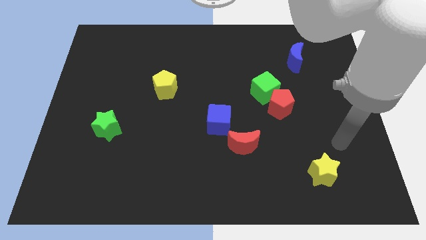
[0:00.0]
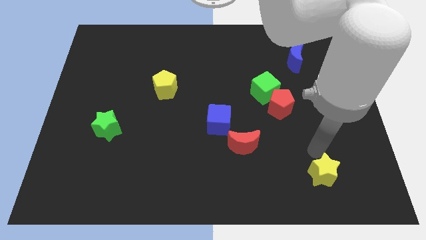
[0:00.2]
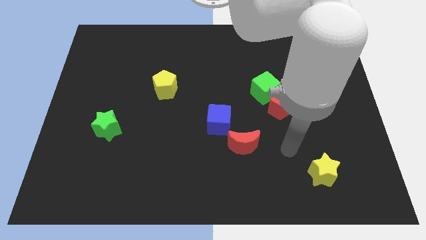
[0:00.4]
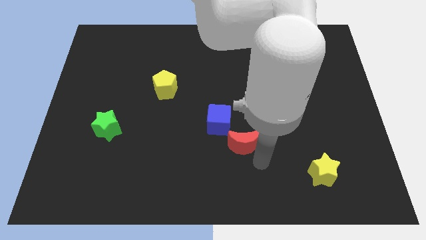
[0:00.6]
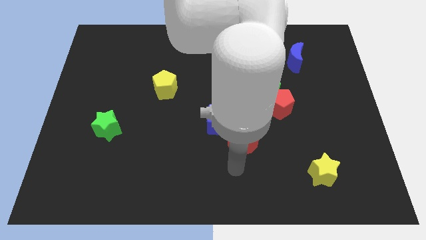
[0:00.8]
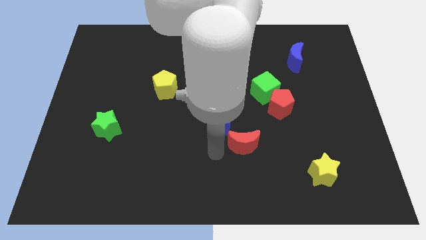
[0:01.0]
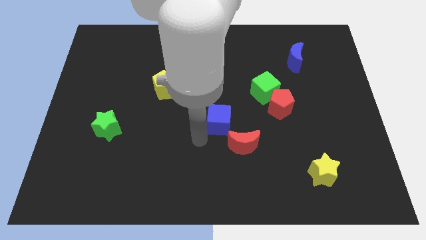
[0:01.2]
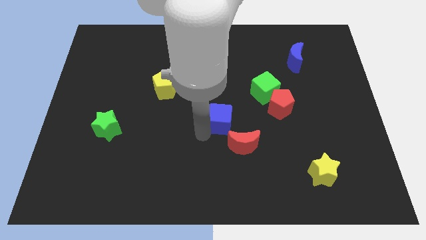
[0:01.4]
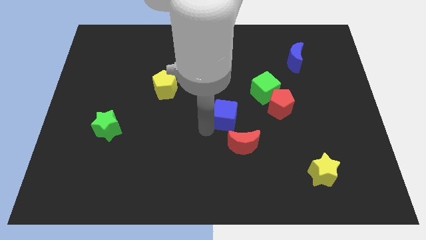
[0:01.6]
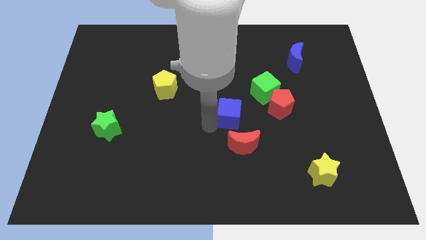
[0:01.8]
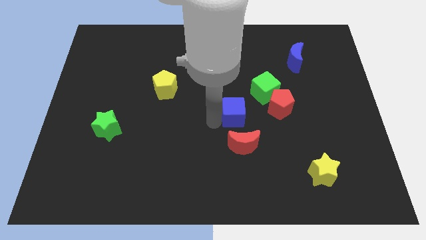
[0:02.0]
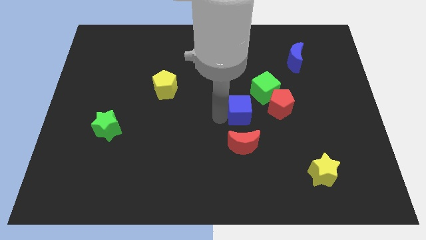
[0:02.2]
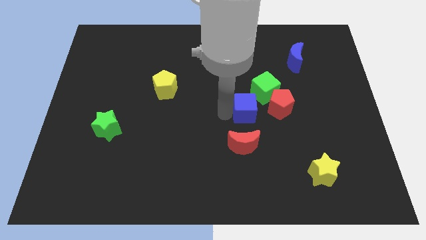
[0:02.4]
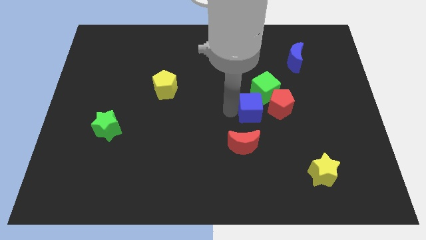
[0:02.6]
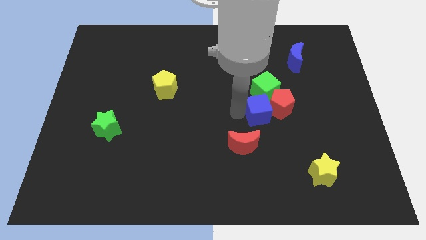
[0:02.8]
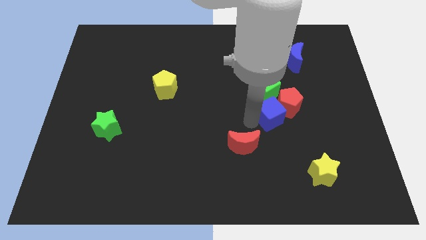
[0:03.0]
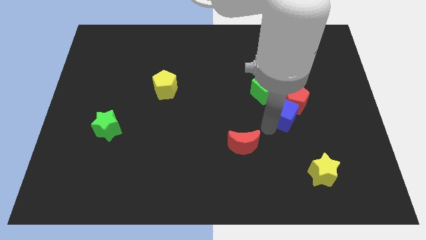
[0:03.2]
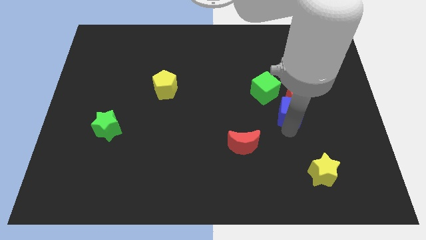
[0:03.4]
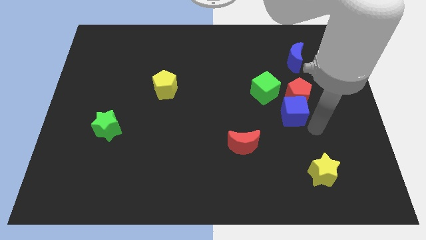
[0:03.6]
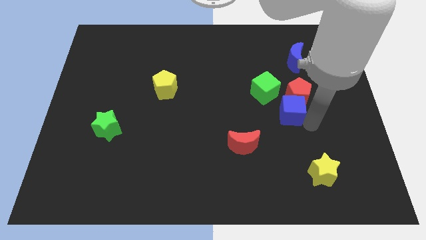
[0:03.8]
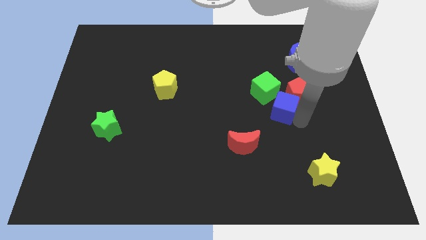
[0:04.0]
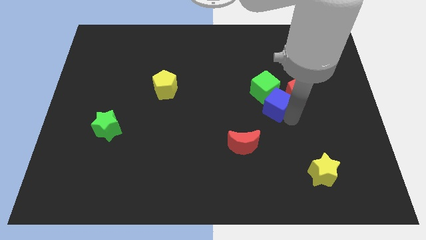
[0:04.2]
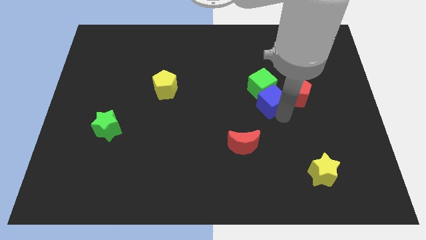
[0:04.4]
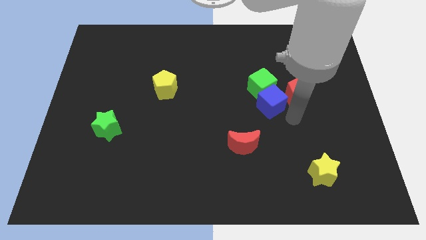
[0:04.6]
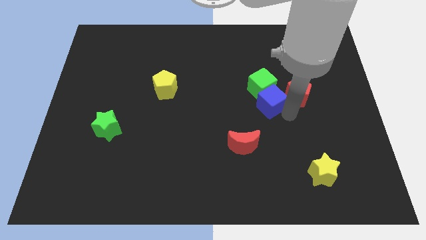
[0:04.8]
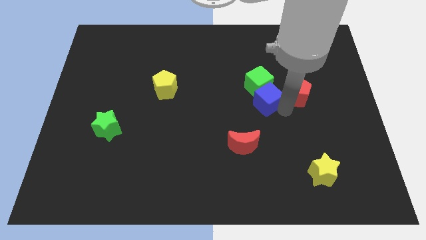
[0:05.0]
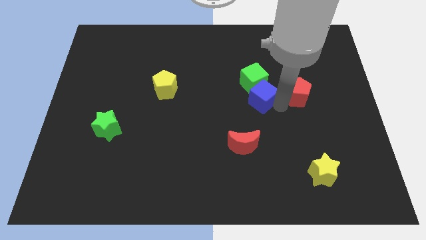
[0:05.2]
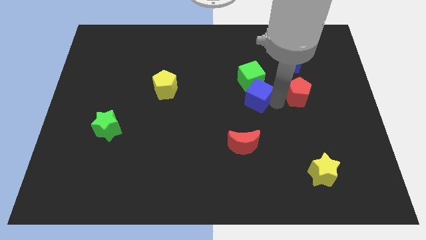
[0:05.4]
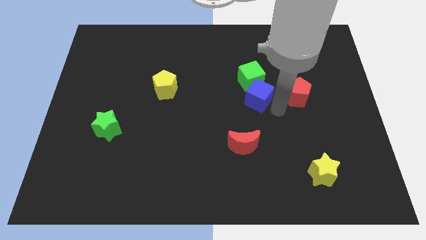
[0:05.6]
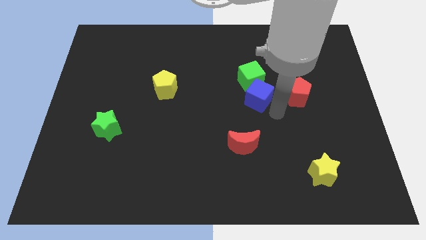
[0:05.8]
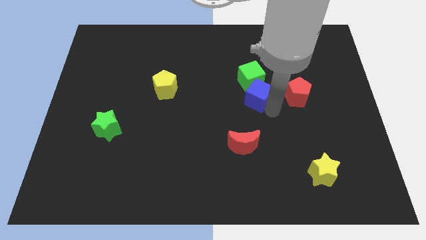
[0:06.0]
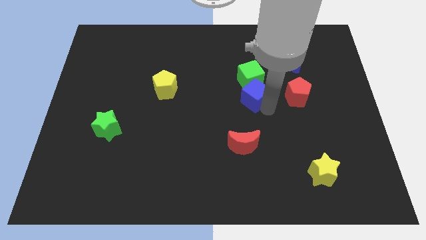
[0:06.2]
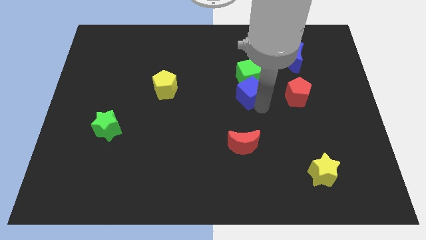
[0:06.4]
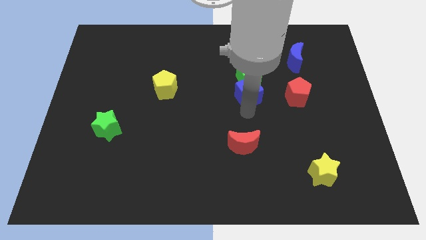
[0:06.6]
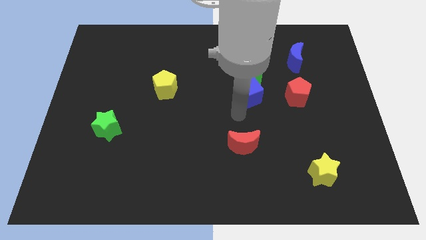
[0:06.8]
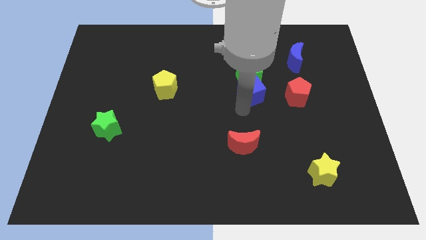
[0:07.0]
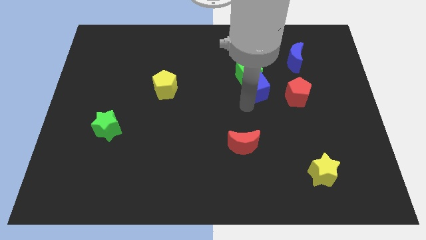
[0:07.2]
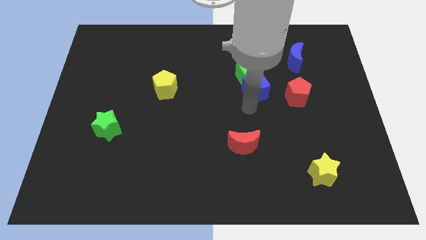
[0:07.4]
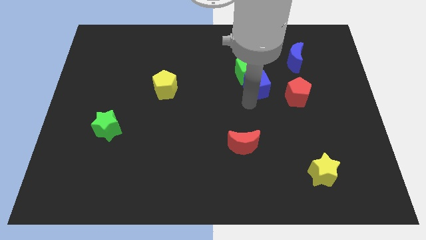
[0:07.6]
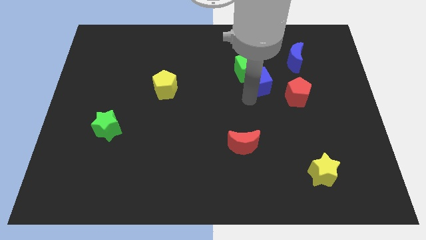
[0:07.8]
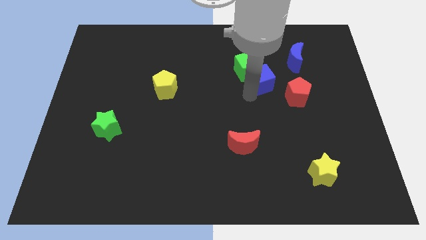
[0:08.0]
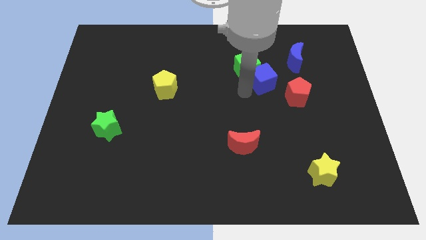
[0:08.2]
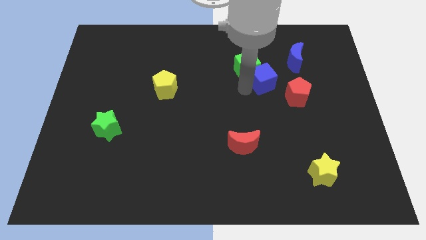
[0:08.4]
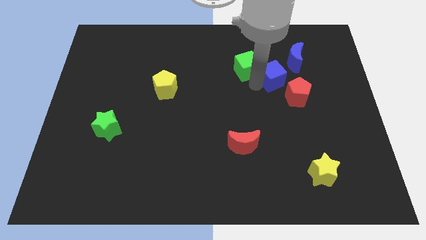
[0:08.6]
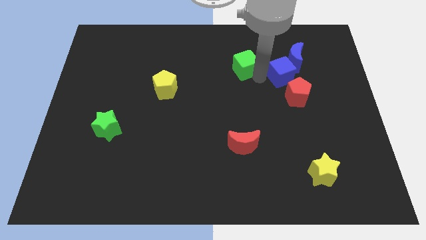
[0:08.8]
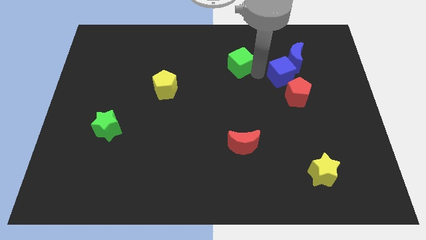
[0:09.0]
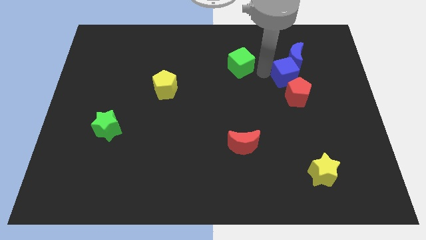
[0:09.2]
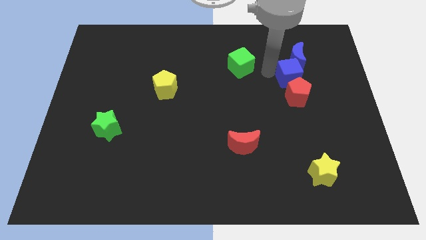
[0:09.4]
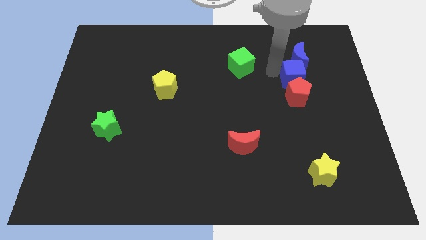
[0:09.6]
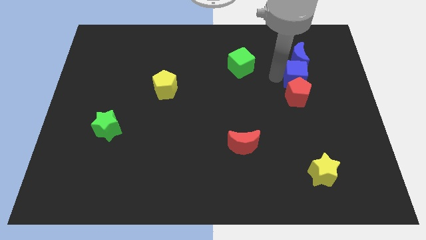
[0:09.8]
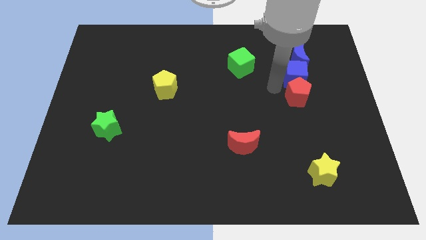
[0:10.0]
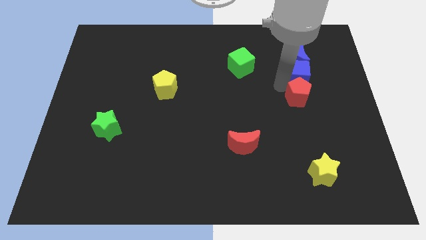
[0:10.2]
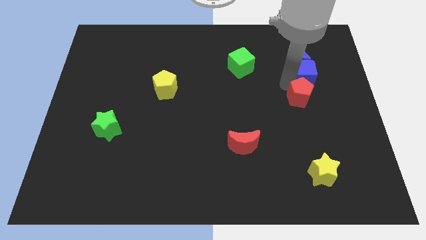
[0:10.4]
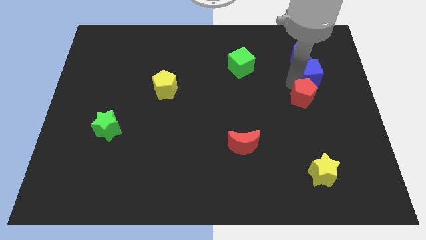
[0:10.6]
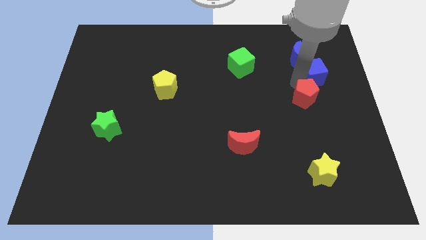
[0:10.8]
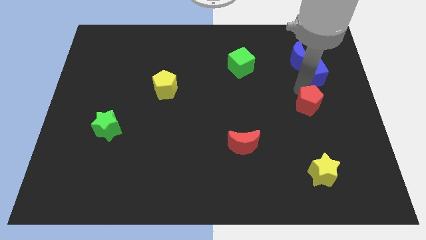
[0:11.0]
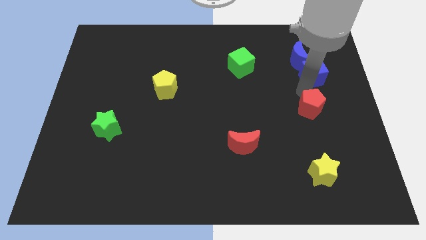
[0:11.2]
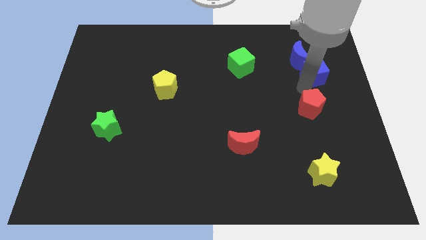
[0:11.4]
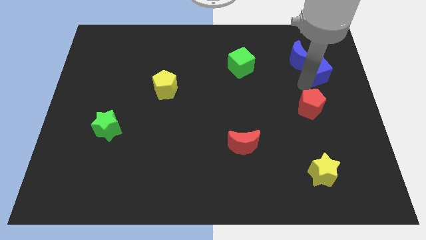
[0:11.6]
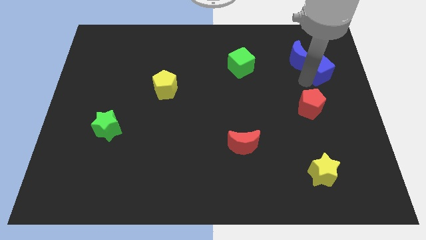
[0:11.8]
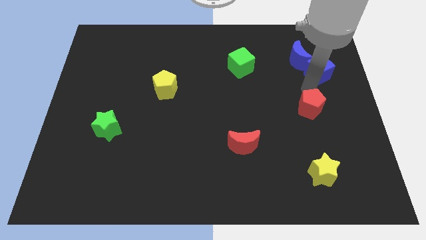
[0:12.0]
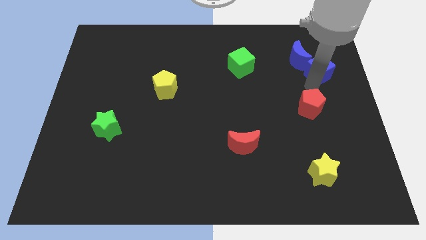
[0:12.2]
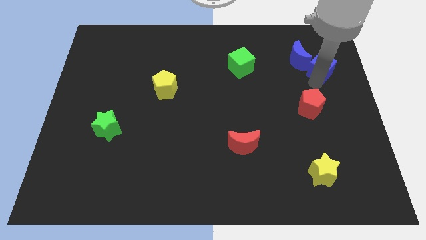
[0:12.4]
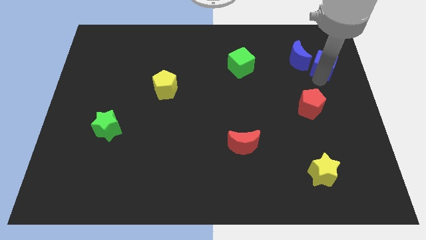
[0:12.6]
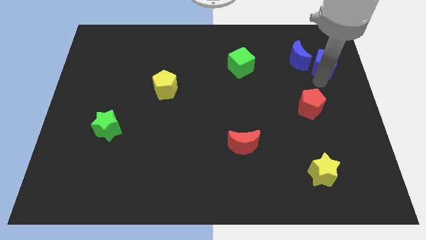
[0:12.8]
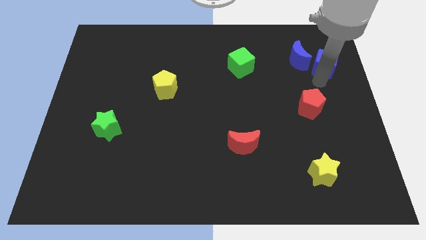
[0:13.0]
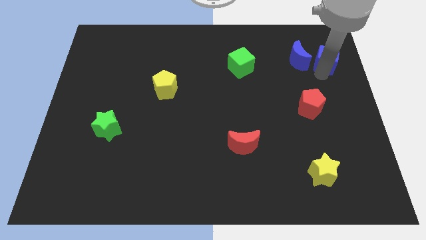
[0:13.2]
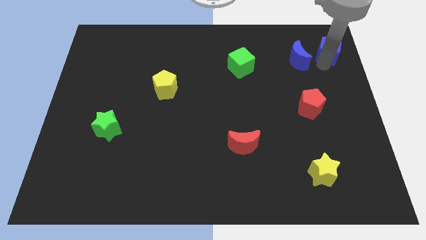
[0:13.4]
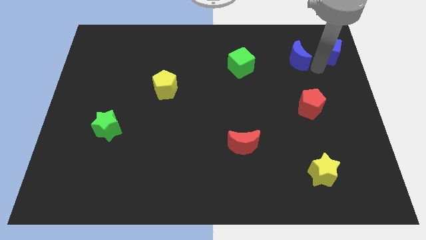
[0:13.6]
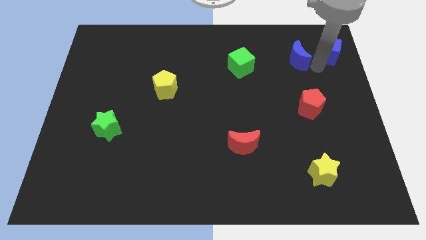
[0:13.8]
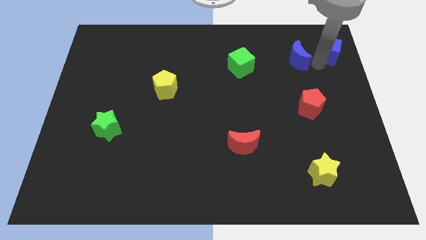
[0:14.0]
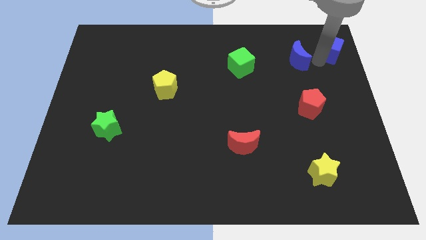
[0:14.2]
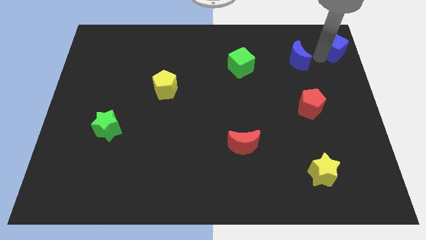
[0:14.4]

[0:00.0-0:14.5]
slide the blue cube to the top right corner
